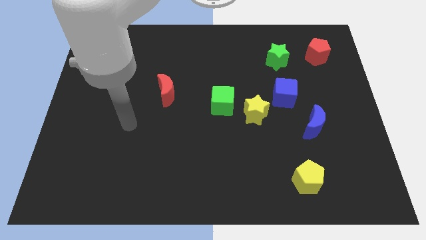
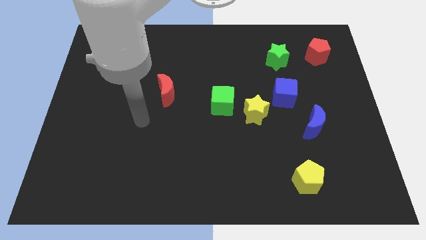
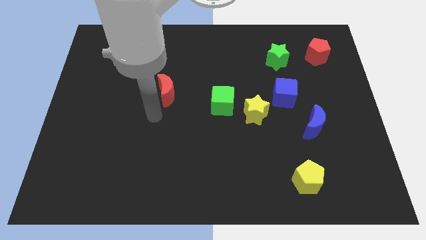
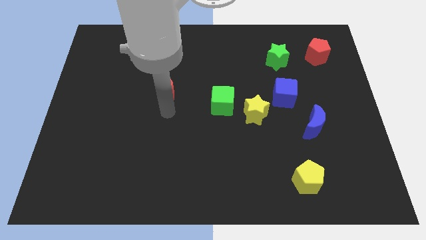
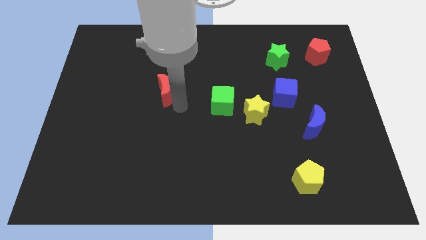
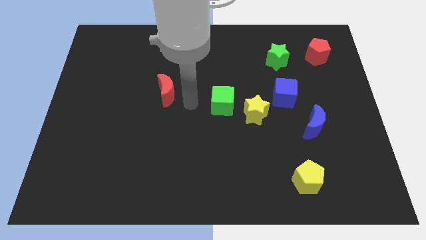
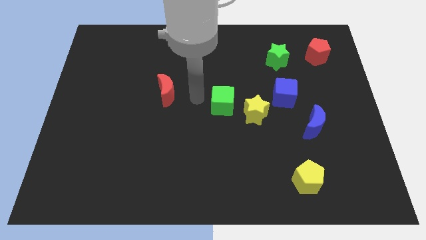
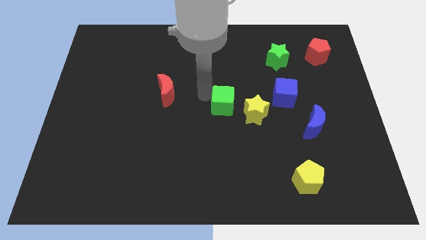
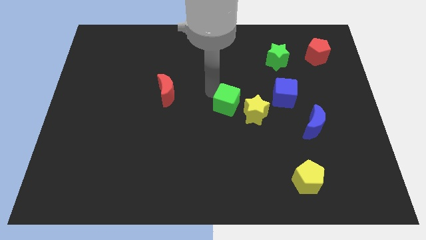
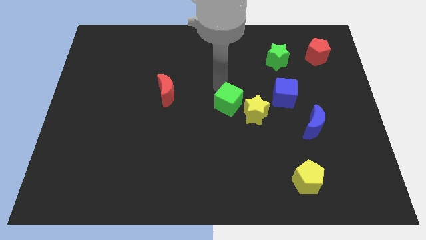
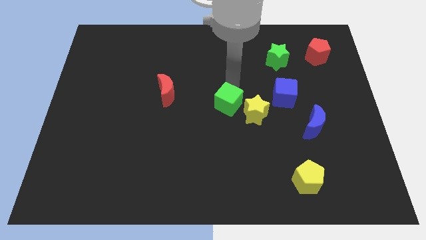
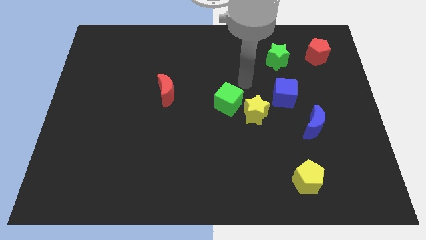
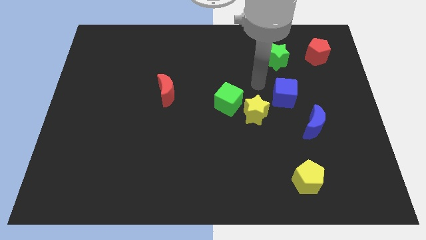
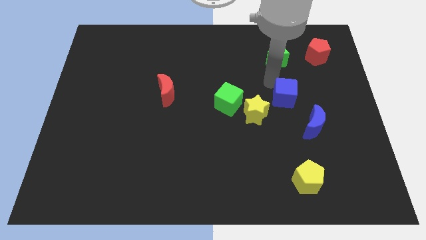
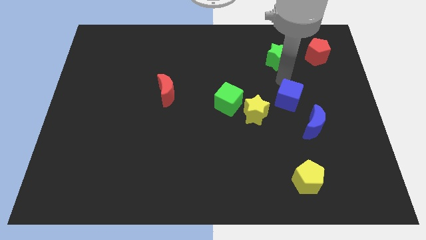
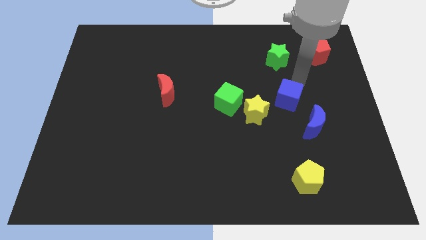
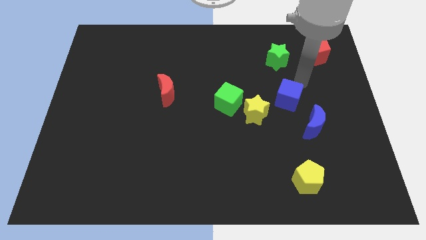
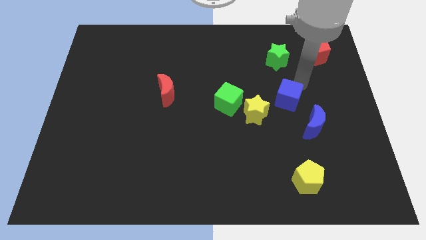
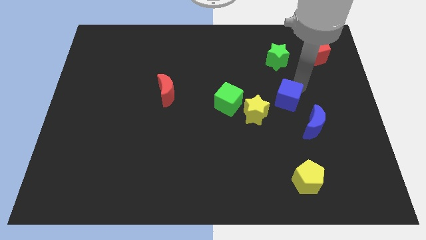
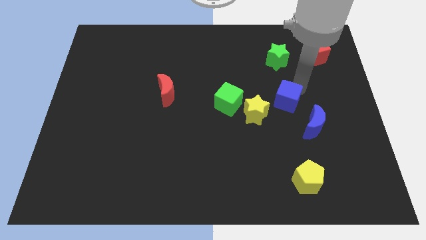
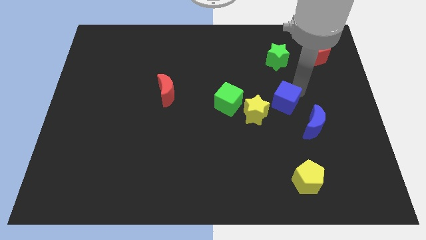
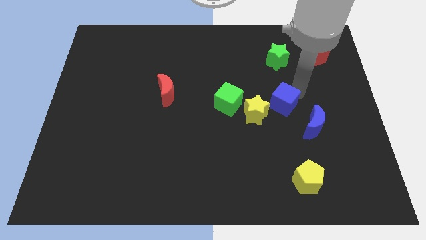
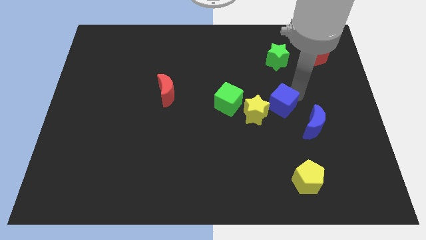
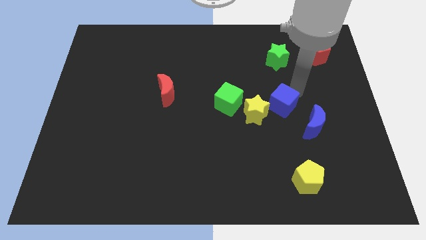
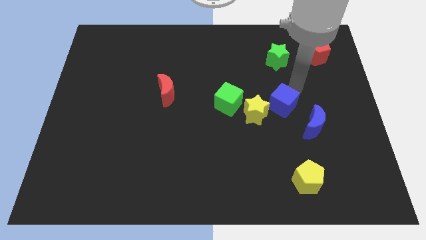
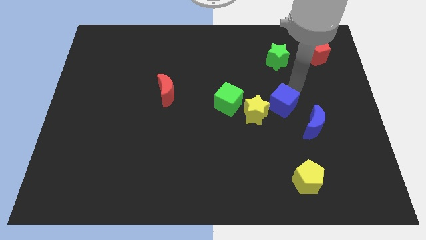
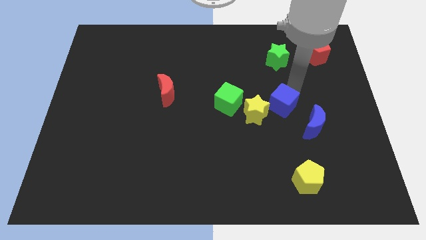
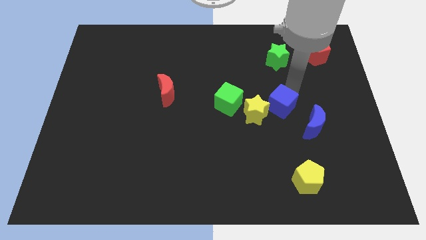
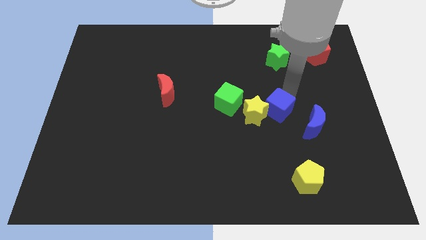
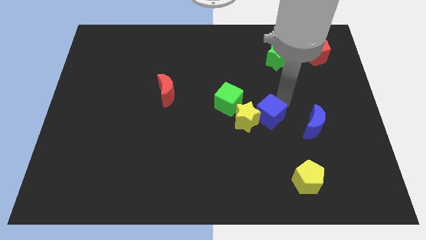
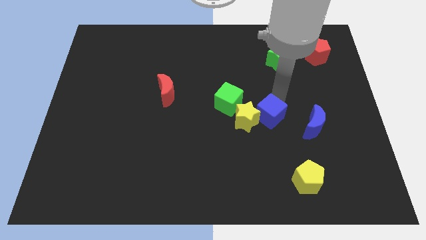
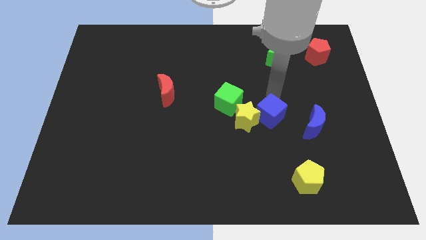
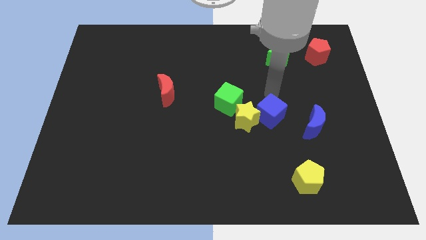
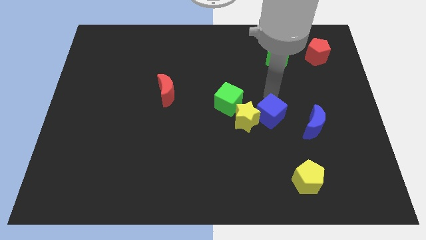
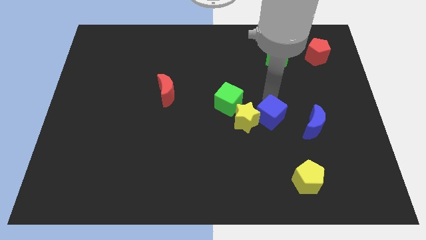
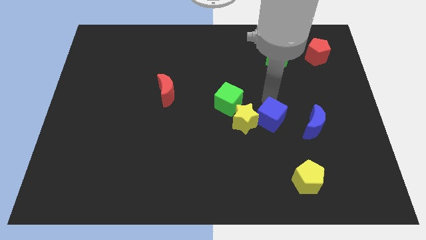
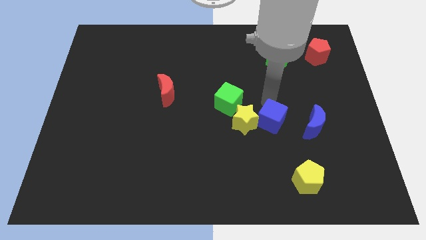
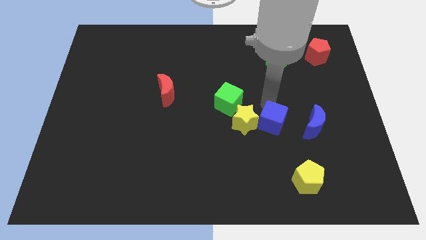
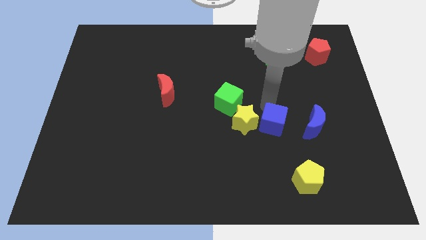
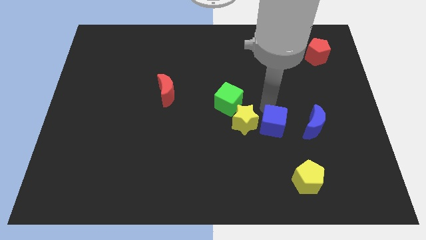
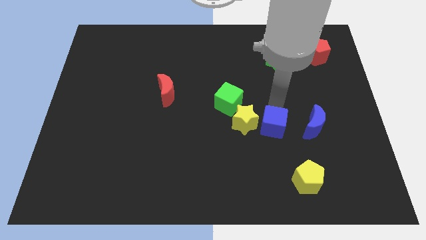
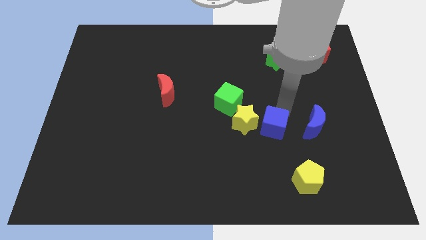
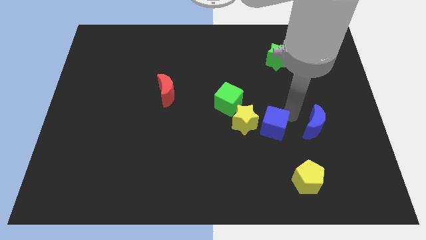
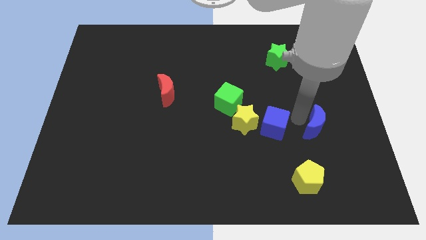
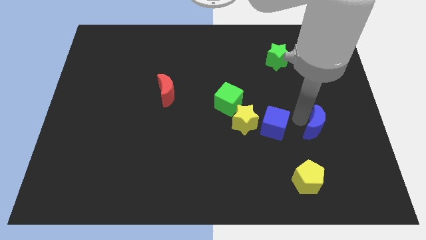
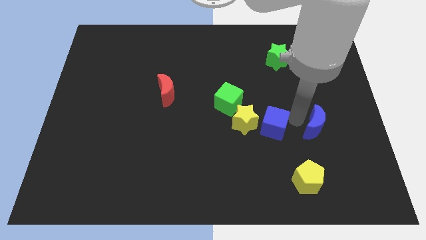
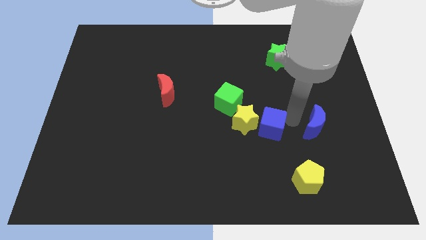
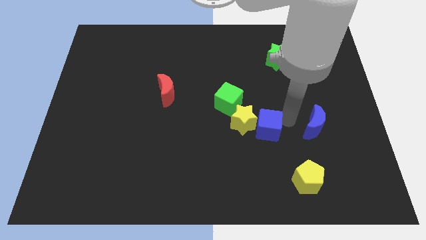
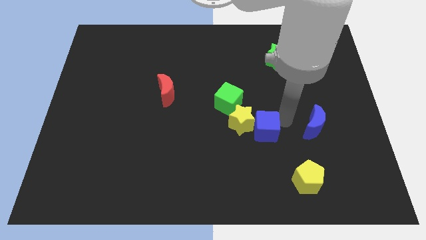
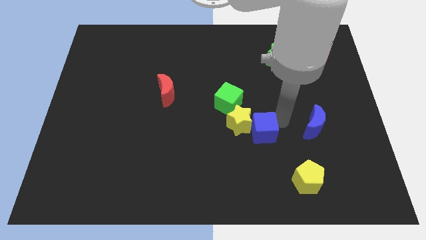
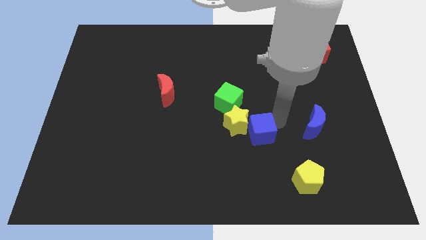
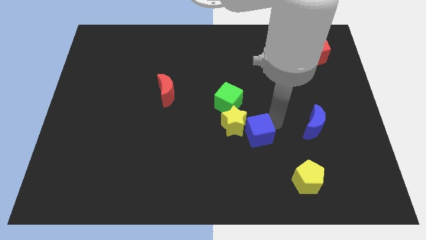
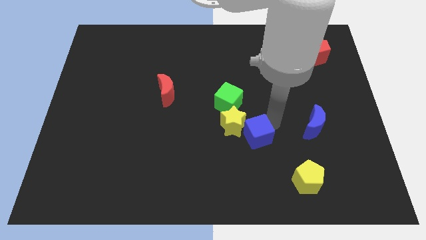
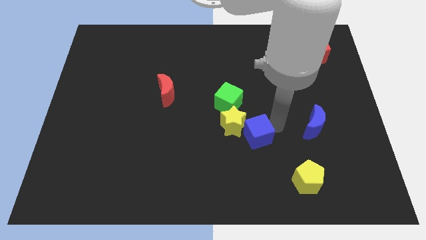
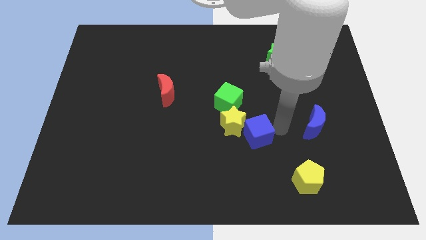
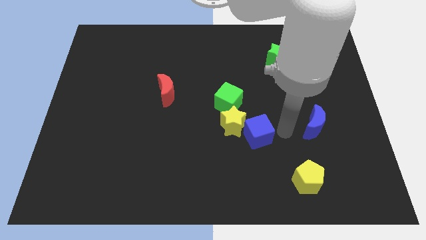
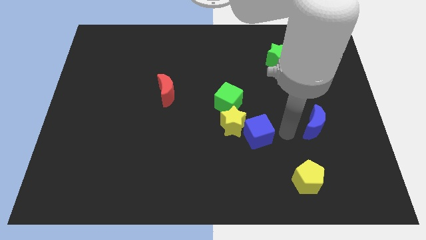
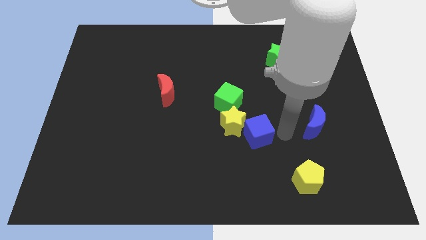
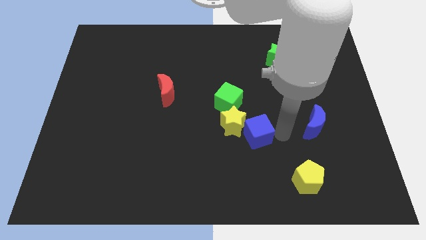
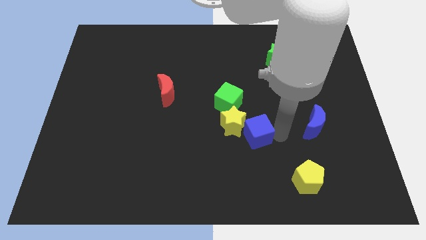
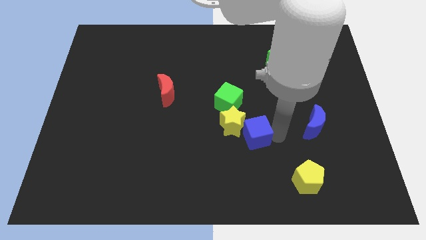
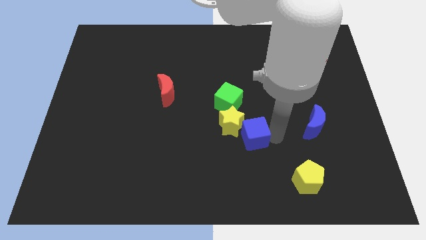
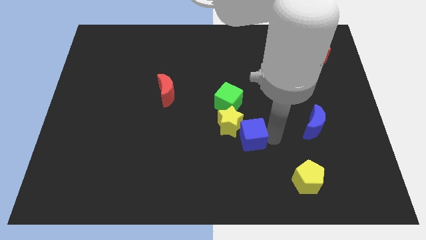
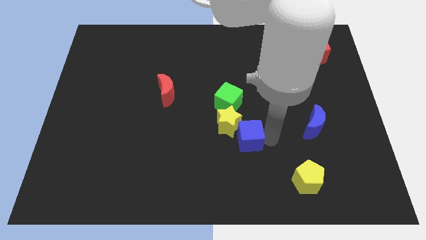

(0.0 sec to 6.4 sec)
push the blue cube below the green cube
